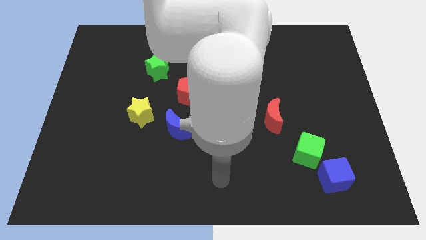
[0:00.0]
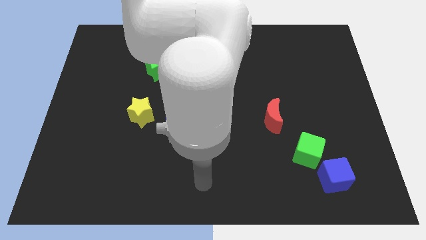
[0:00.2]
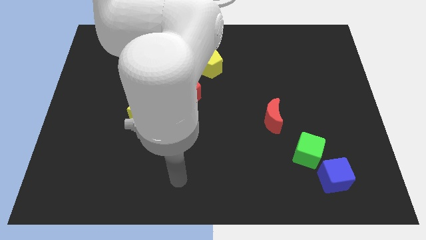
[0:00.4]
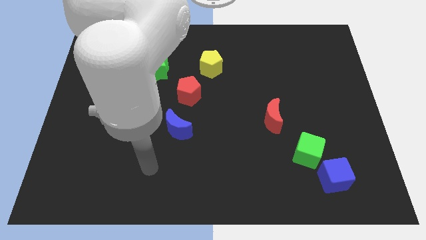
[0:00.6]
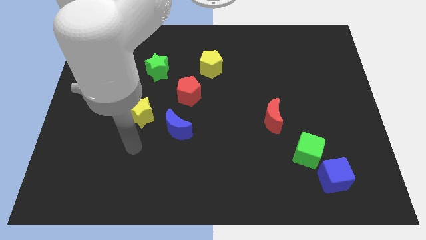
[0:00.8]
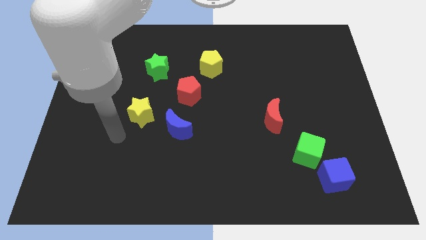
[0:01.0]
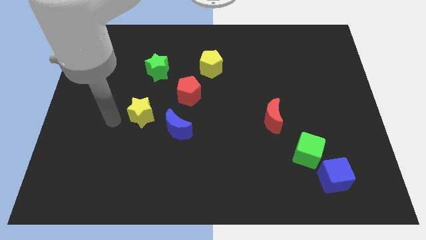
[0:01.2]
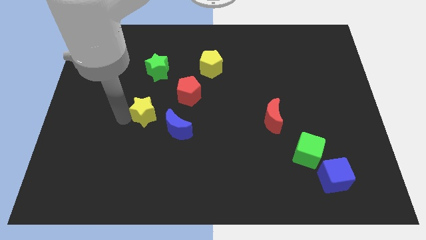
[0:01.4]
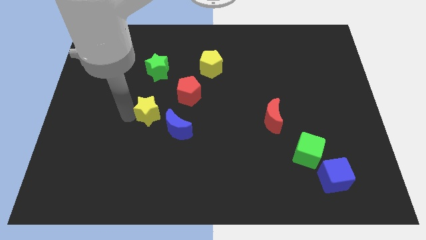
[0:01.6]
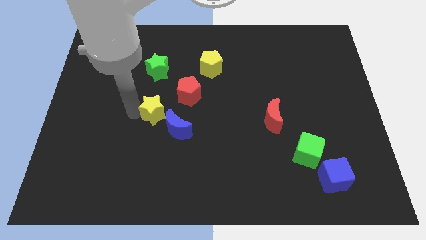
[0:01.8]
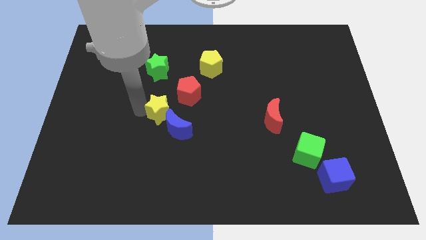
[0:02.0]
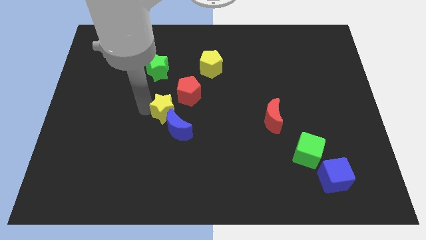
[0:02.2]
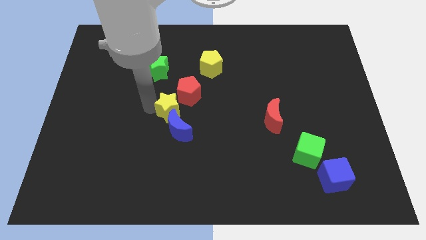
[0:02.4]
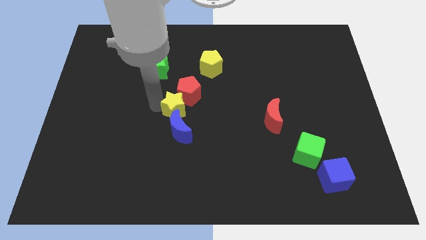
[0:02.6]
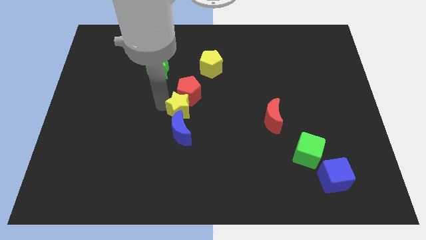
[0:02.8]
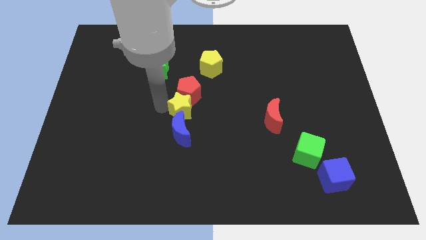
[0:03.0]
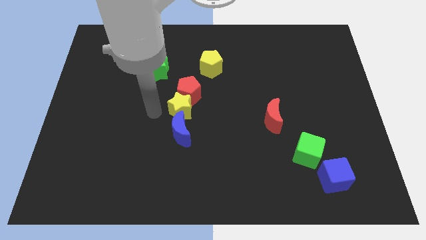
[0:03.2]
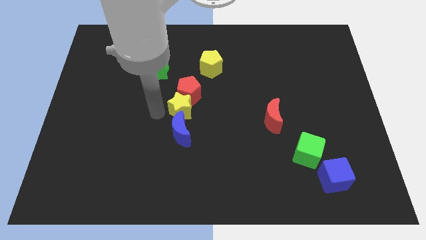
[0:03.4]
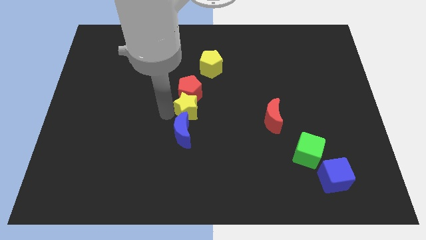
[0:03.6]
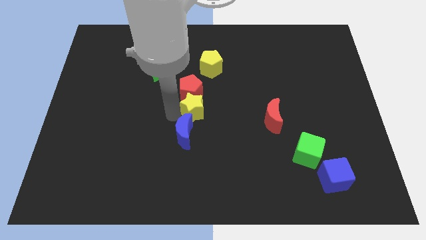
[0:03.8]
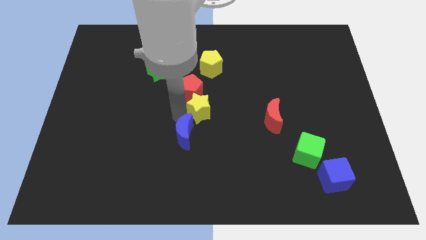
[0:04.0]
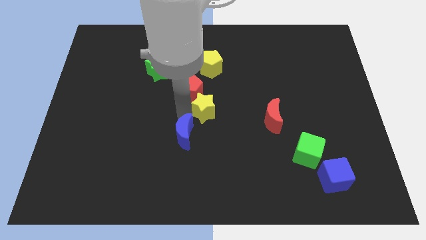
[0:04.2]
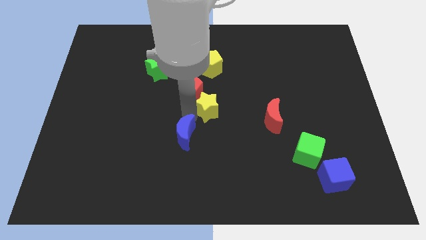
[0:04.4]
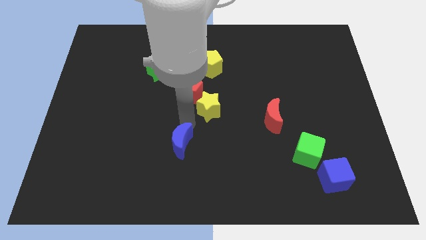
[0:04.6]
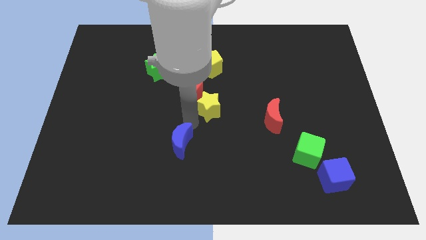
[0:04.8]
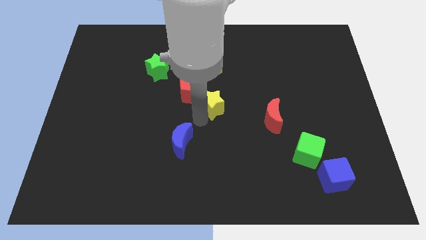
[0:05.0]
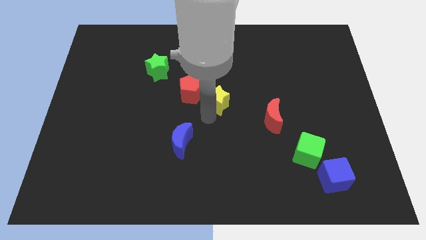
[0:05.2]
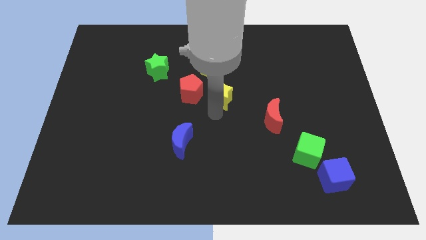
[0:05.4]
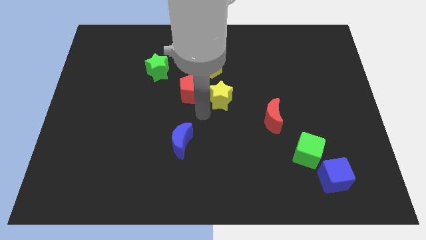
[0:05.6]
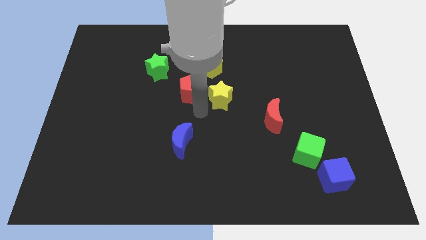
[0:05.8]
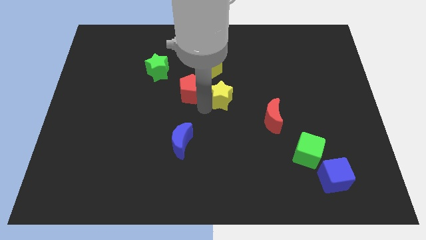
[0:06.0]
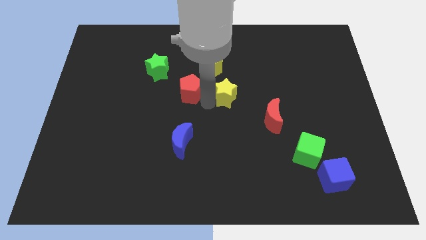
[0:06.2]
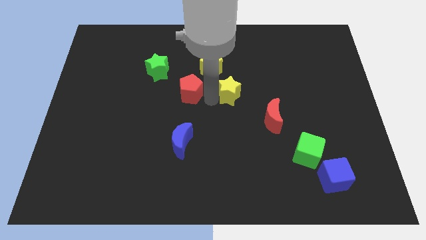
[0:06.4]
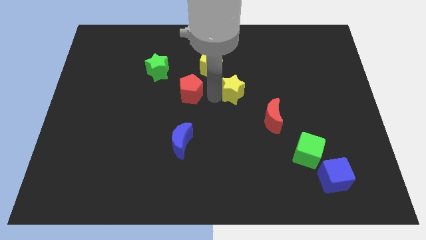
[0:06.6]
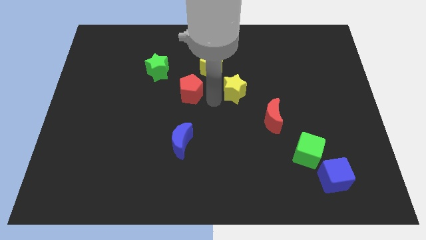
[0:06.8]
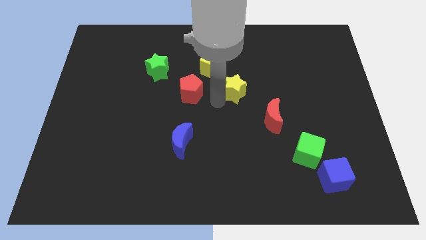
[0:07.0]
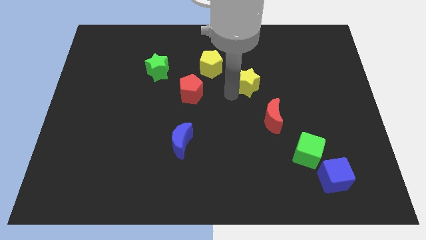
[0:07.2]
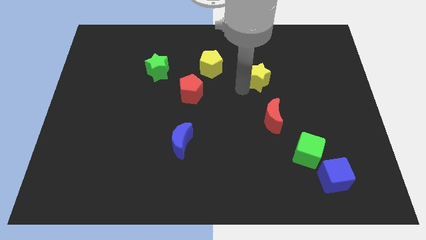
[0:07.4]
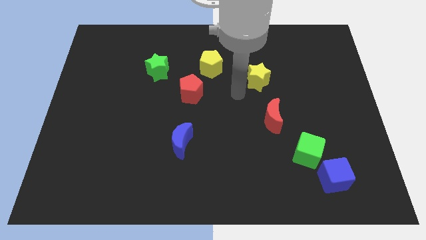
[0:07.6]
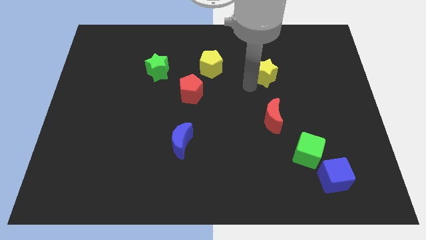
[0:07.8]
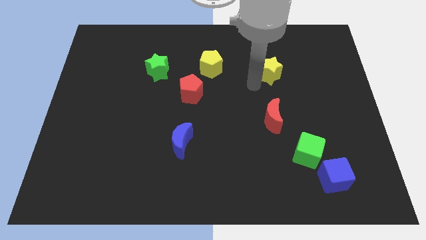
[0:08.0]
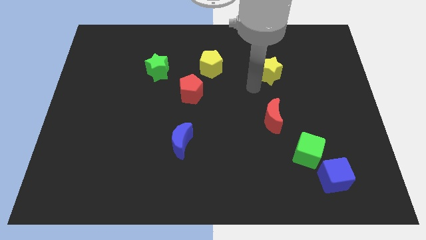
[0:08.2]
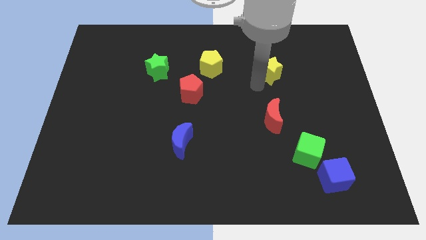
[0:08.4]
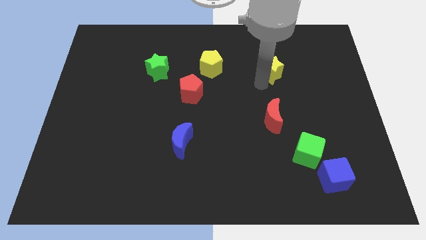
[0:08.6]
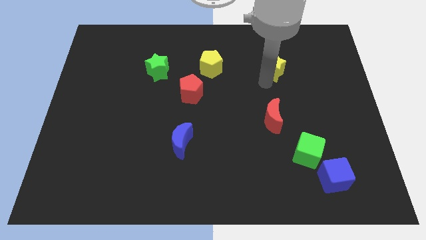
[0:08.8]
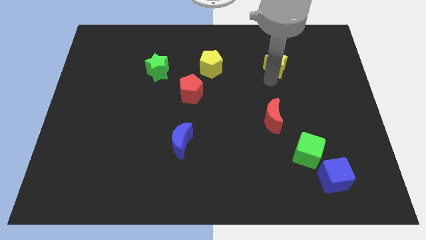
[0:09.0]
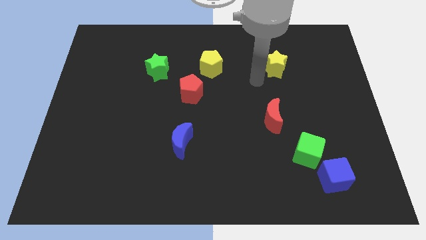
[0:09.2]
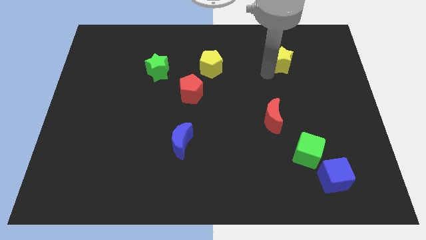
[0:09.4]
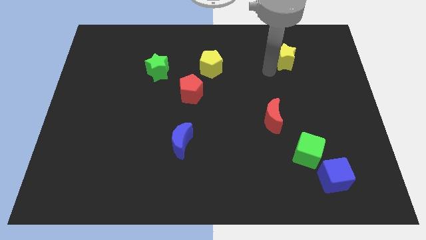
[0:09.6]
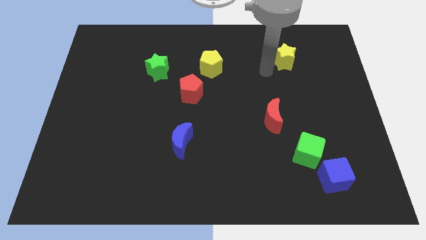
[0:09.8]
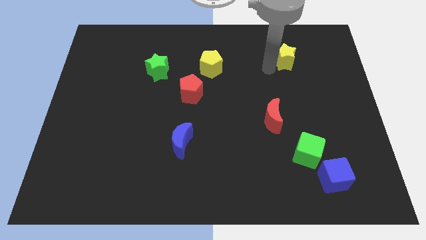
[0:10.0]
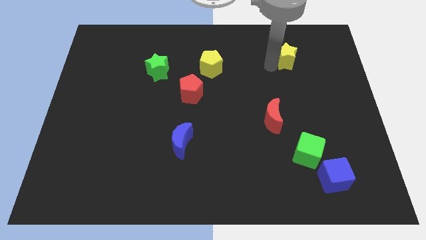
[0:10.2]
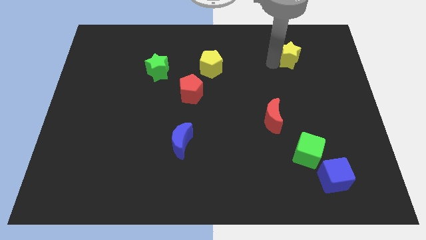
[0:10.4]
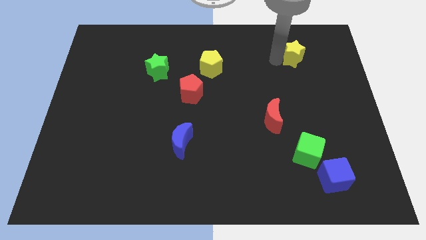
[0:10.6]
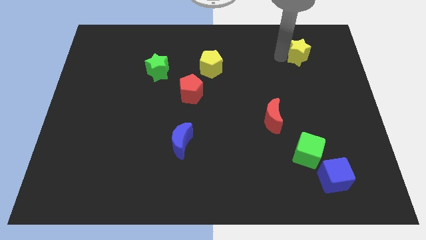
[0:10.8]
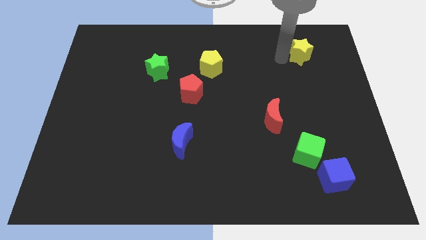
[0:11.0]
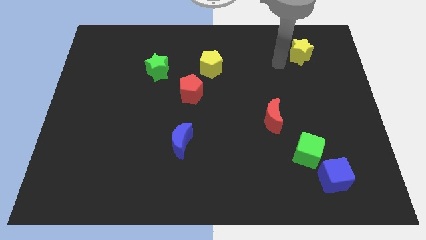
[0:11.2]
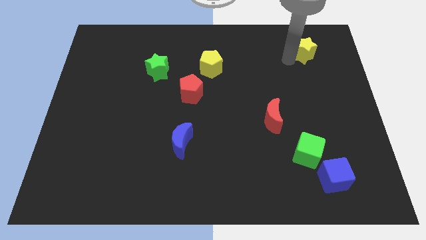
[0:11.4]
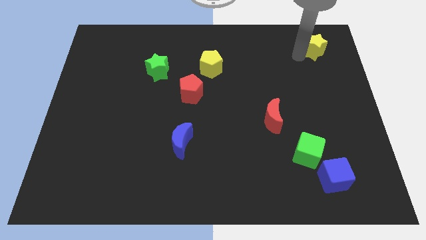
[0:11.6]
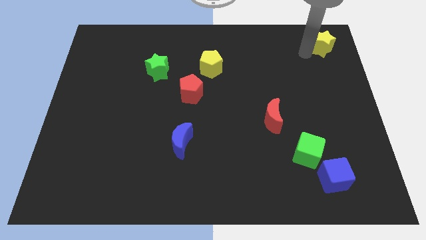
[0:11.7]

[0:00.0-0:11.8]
push the yellow star to the top right corner
